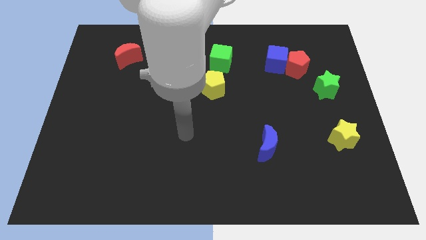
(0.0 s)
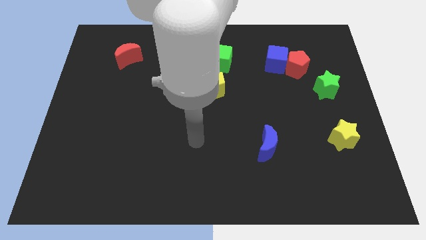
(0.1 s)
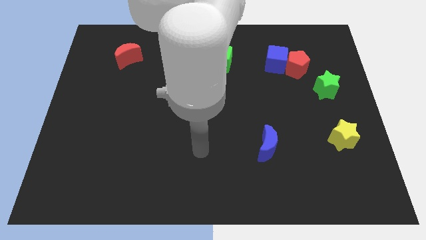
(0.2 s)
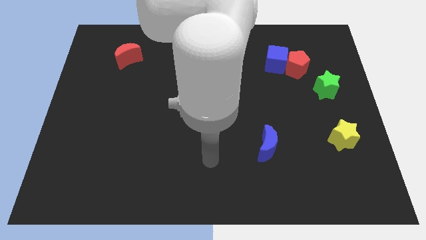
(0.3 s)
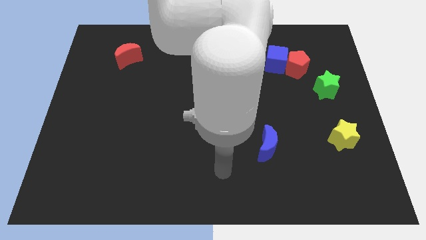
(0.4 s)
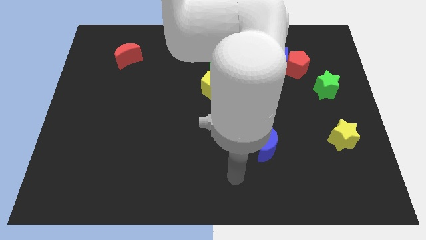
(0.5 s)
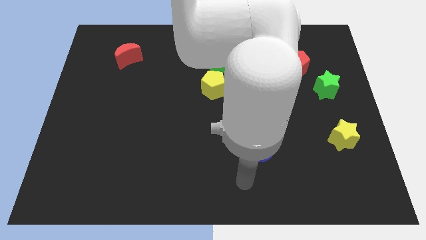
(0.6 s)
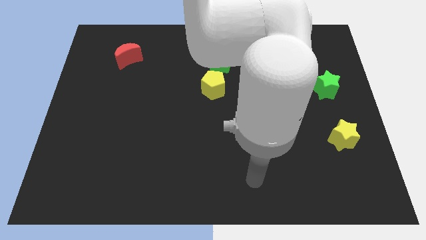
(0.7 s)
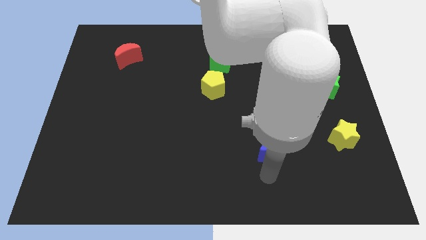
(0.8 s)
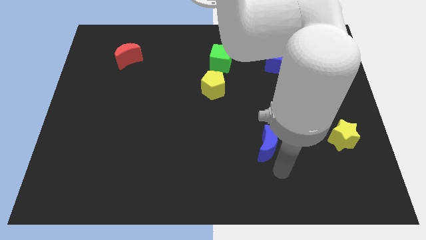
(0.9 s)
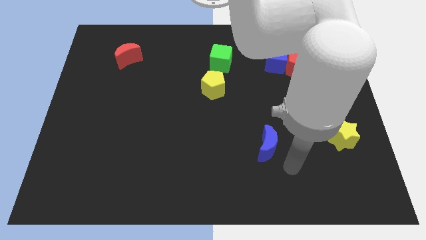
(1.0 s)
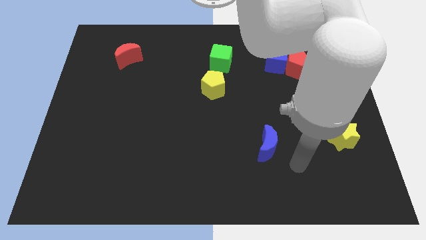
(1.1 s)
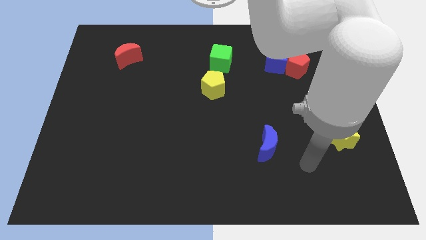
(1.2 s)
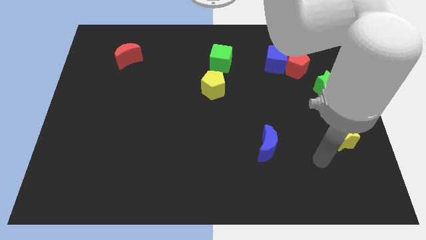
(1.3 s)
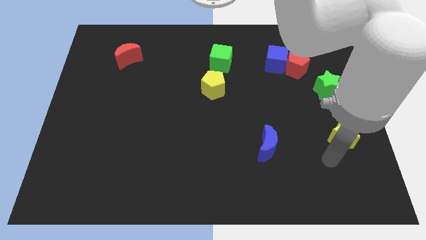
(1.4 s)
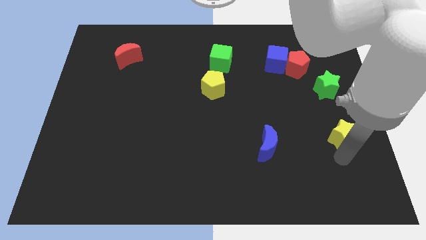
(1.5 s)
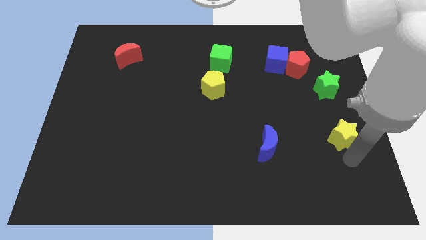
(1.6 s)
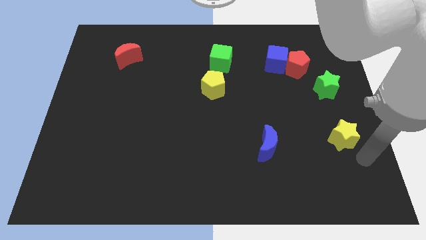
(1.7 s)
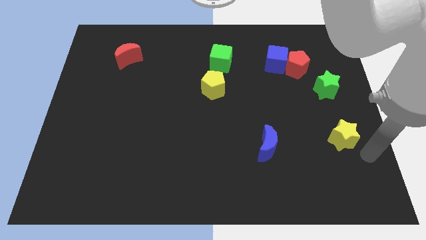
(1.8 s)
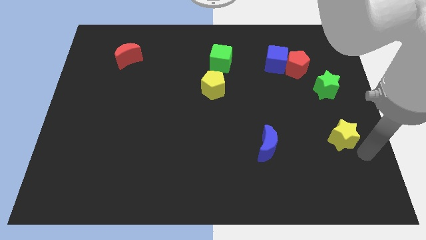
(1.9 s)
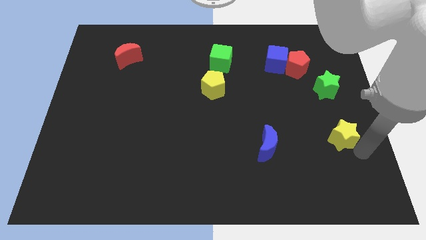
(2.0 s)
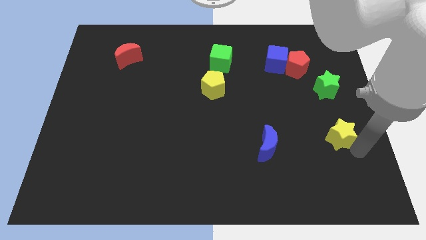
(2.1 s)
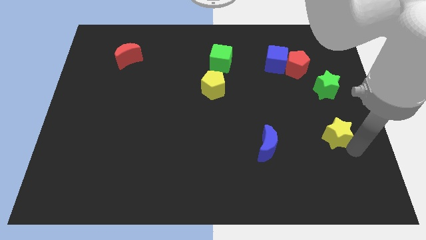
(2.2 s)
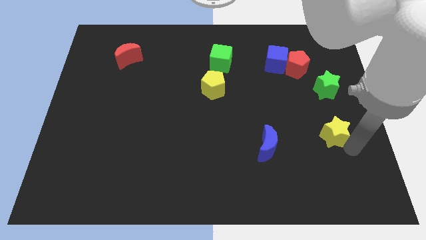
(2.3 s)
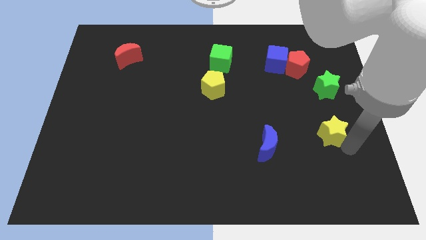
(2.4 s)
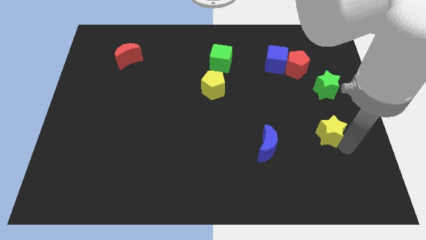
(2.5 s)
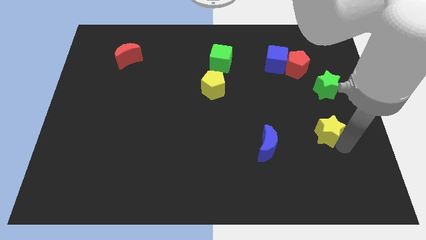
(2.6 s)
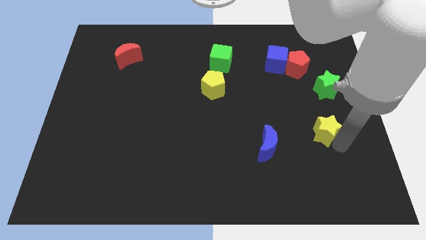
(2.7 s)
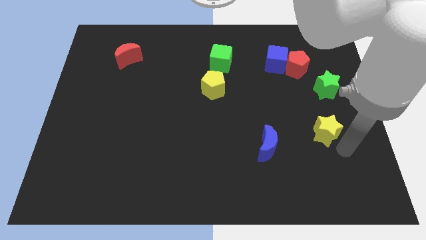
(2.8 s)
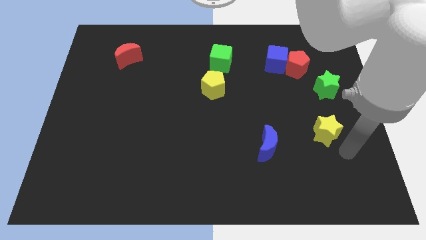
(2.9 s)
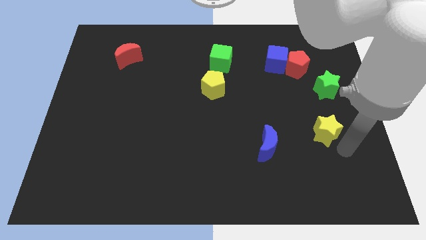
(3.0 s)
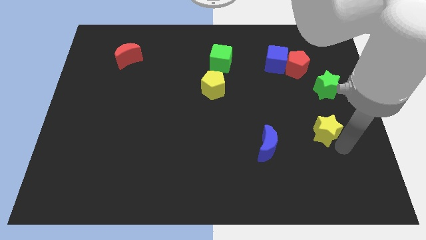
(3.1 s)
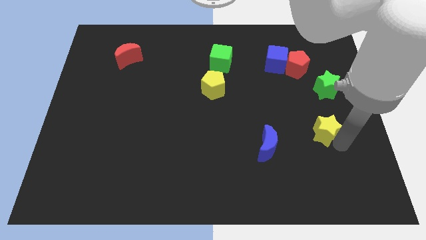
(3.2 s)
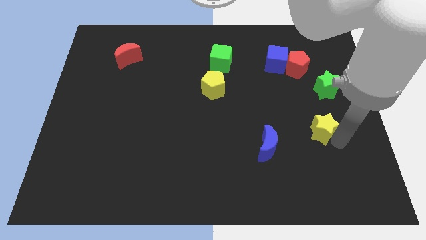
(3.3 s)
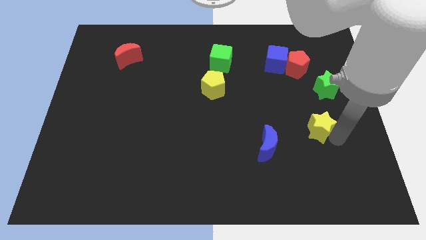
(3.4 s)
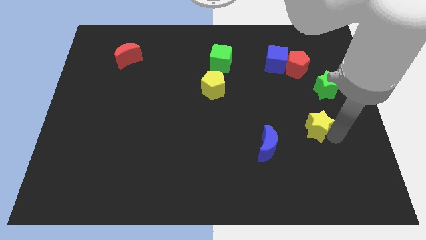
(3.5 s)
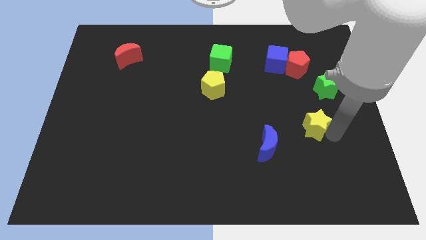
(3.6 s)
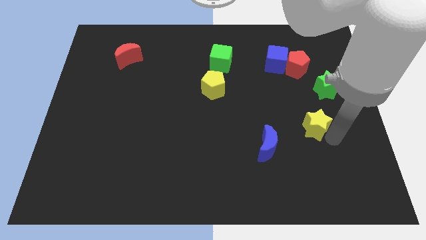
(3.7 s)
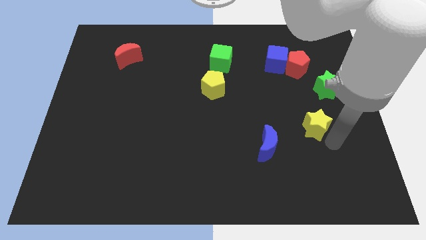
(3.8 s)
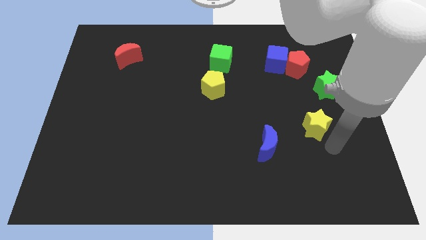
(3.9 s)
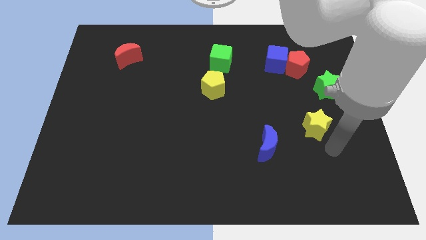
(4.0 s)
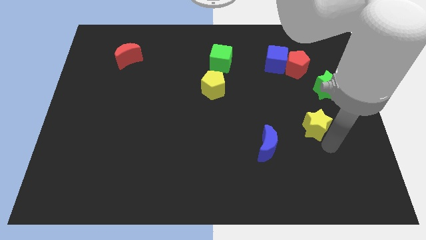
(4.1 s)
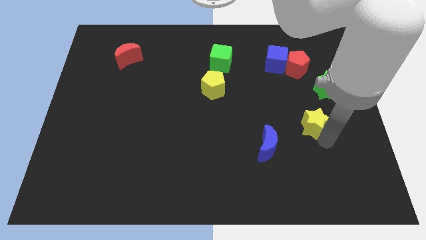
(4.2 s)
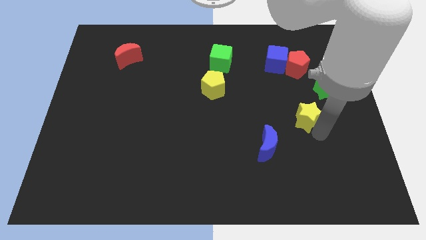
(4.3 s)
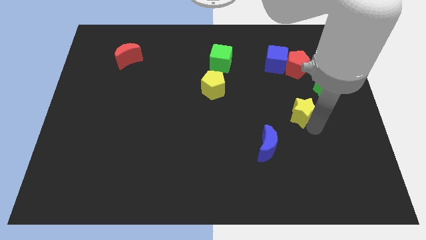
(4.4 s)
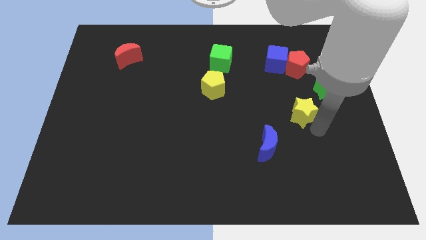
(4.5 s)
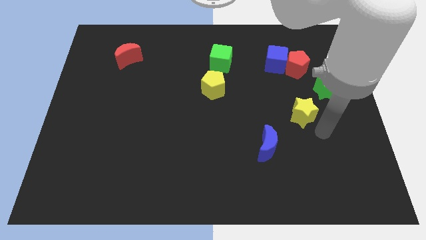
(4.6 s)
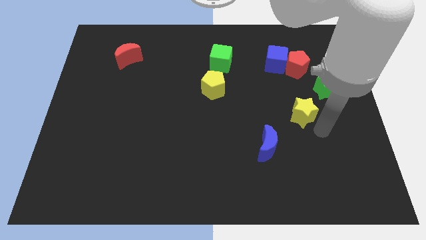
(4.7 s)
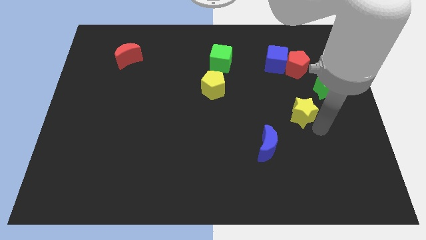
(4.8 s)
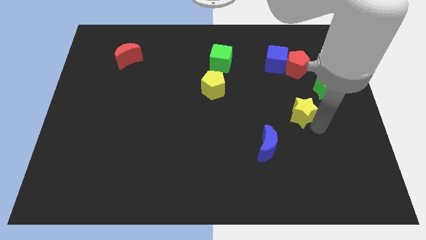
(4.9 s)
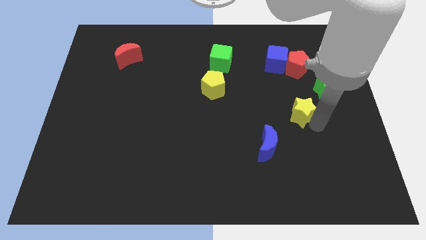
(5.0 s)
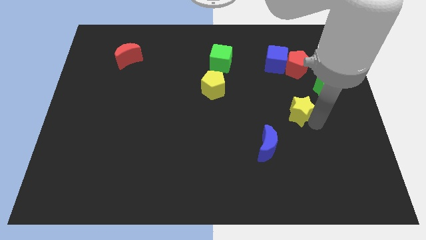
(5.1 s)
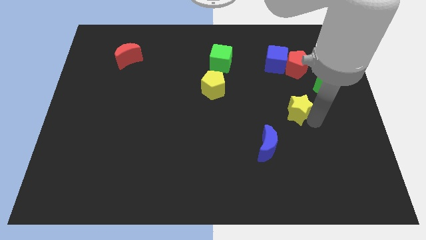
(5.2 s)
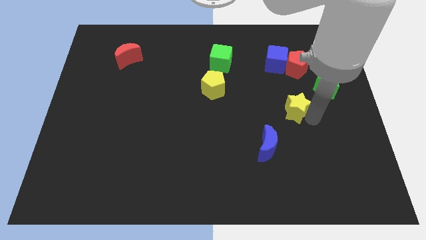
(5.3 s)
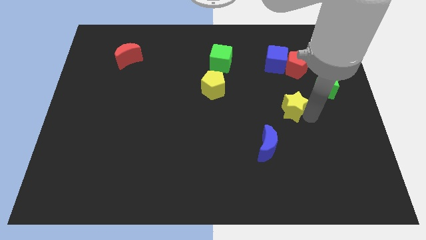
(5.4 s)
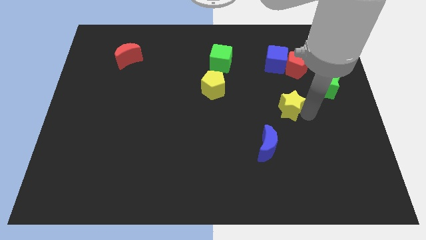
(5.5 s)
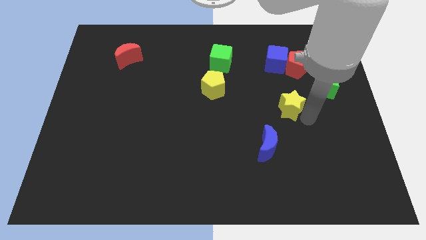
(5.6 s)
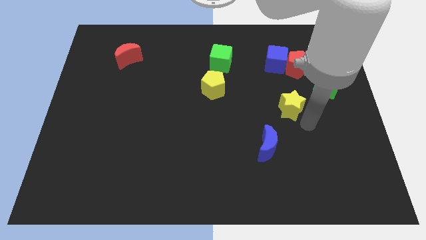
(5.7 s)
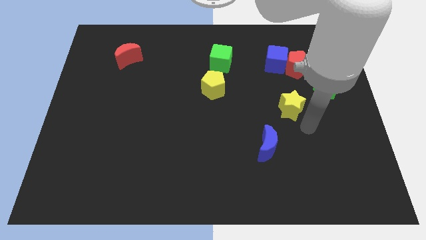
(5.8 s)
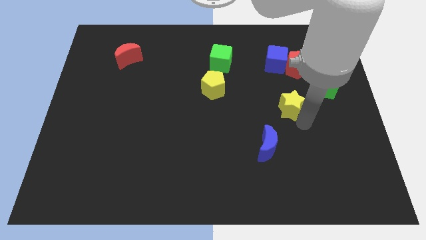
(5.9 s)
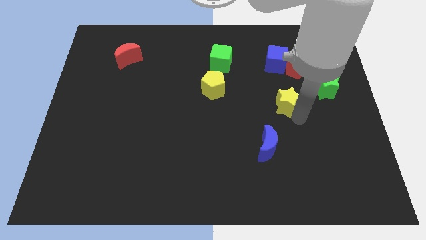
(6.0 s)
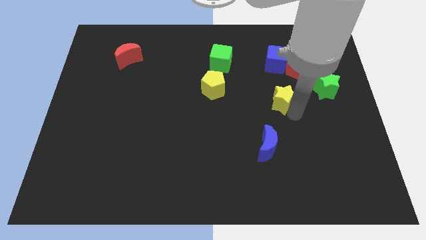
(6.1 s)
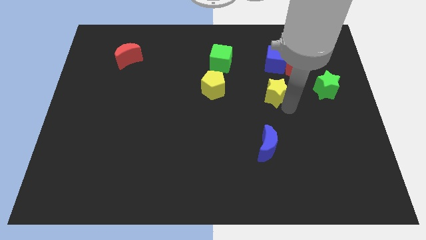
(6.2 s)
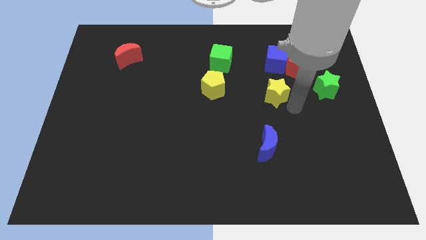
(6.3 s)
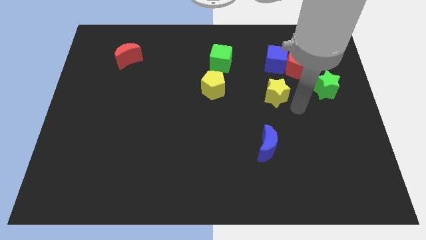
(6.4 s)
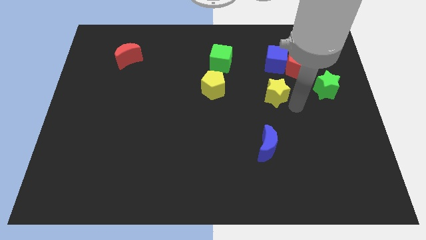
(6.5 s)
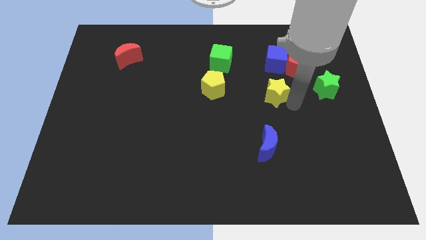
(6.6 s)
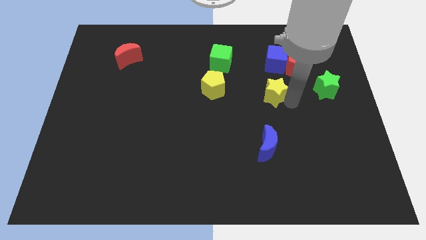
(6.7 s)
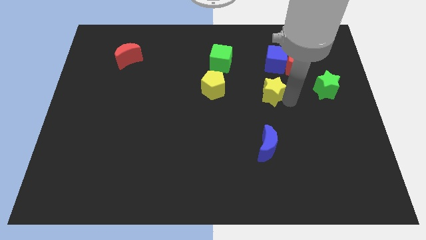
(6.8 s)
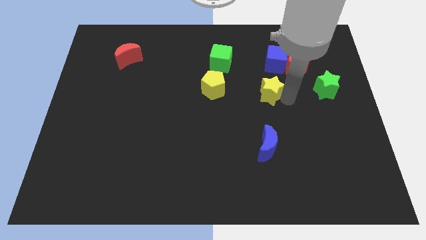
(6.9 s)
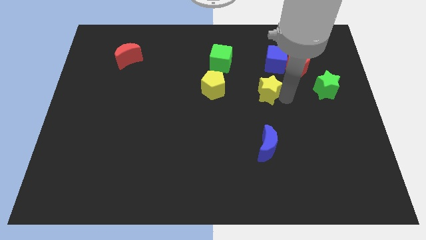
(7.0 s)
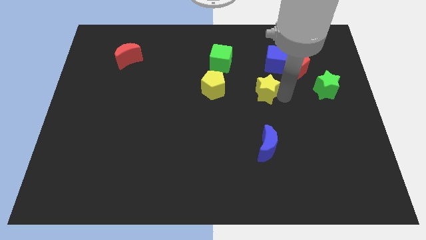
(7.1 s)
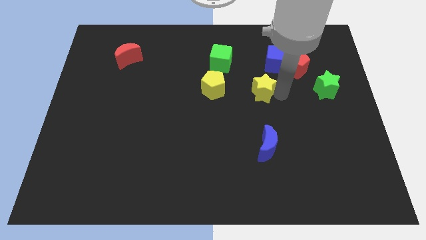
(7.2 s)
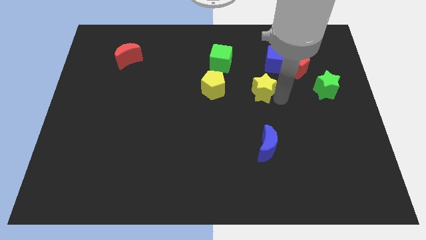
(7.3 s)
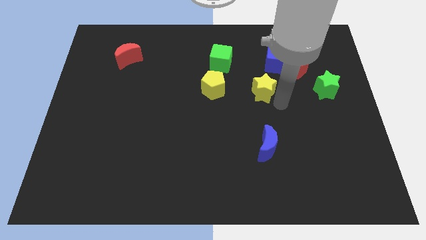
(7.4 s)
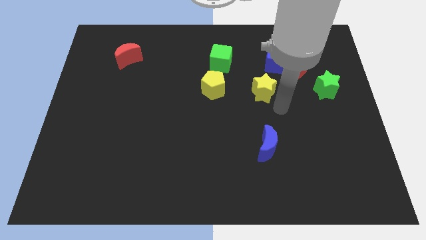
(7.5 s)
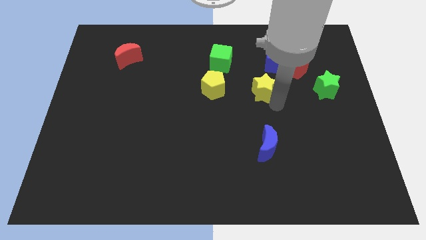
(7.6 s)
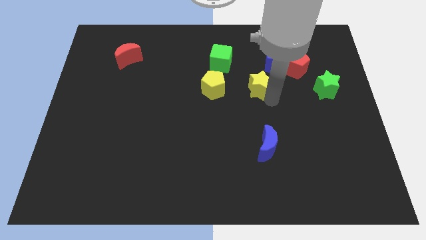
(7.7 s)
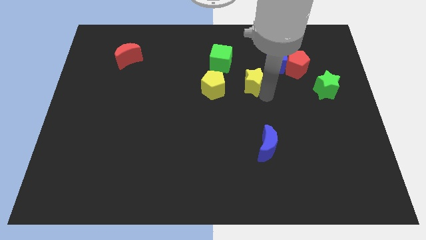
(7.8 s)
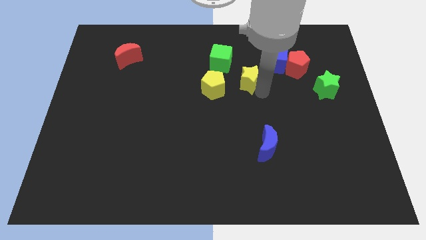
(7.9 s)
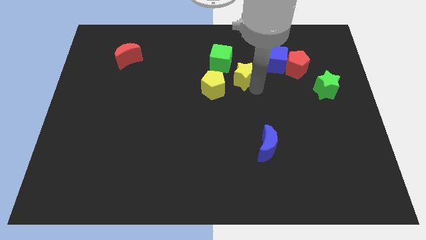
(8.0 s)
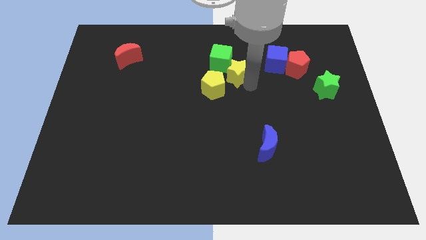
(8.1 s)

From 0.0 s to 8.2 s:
put the yellow star left of the blue cube
